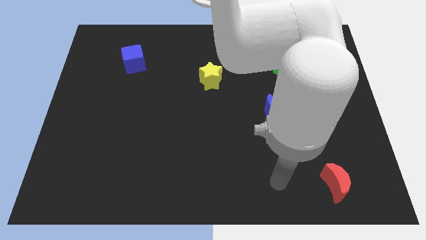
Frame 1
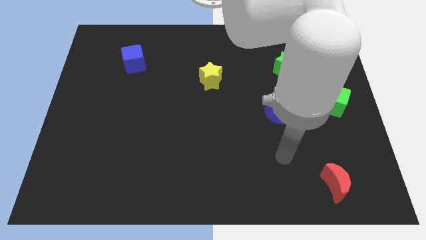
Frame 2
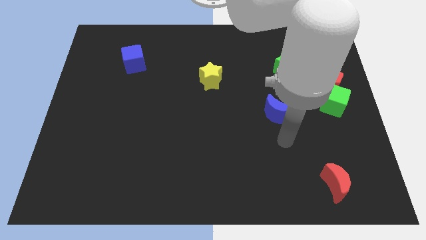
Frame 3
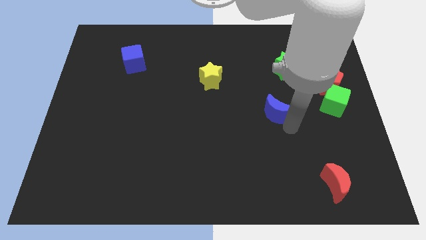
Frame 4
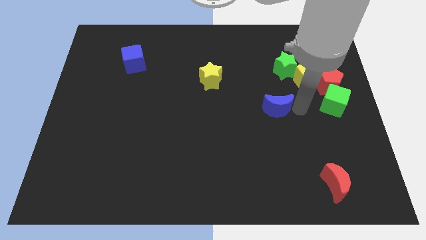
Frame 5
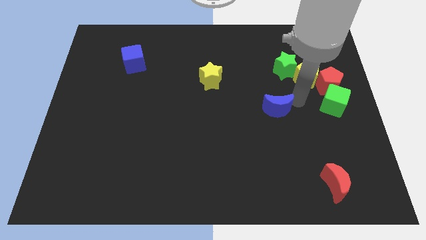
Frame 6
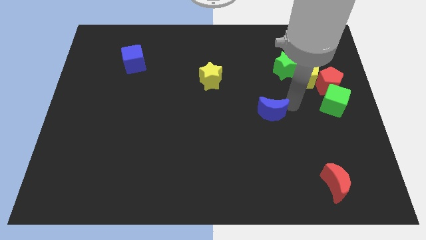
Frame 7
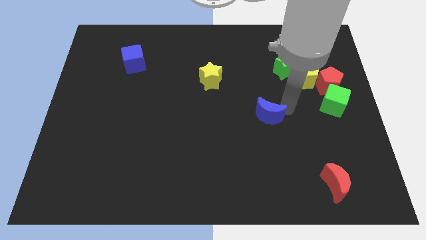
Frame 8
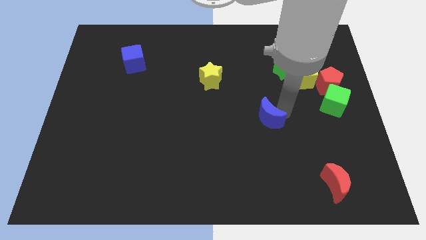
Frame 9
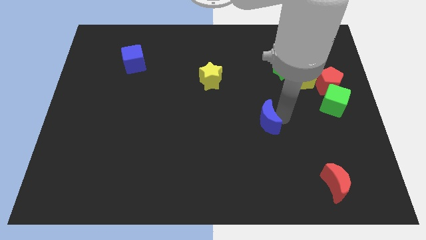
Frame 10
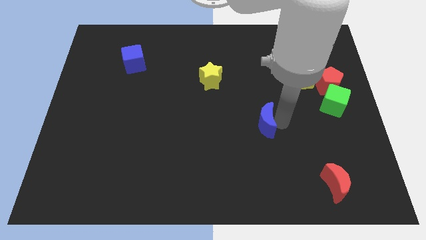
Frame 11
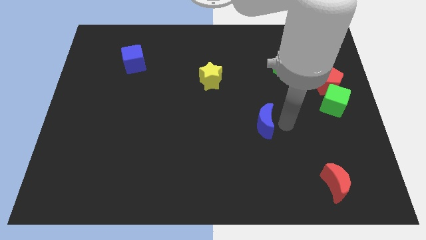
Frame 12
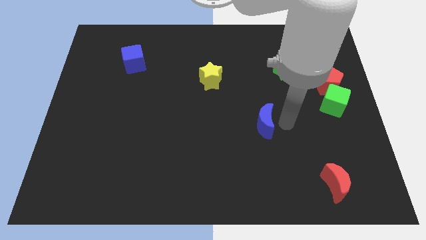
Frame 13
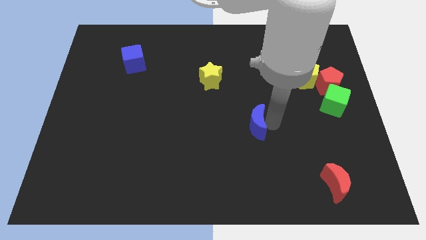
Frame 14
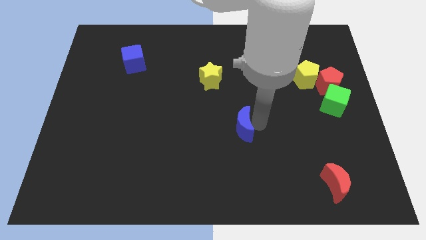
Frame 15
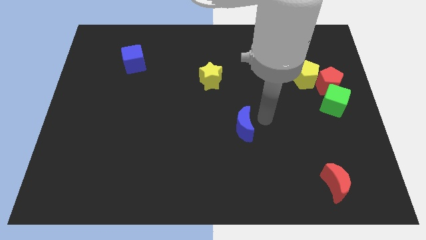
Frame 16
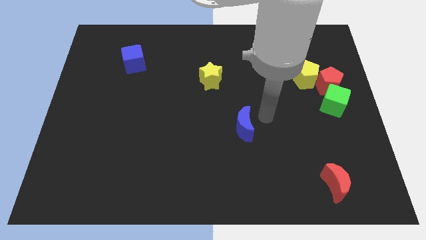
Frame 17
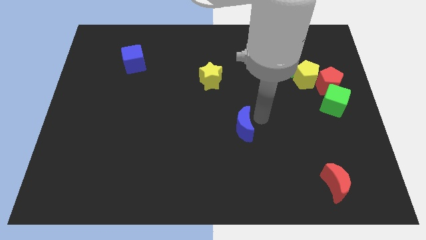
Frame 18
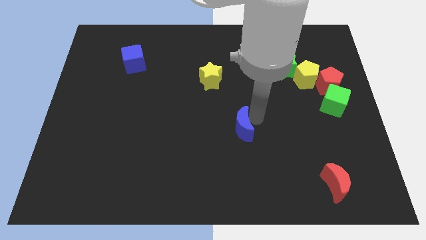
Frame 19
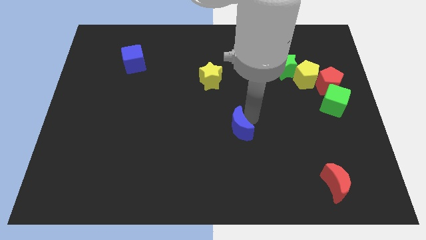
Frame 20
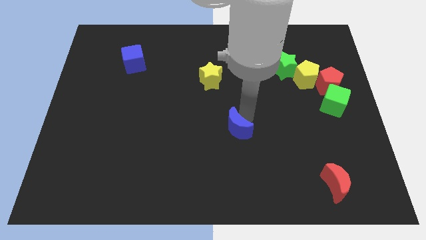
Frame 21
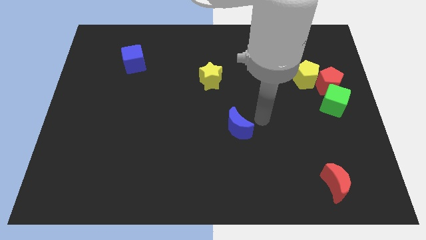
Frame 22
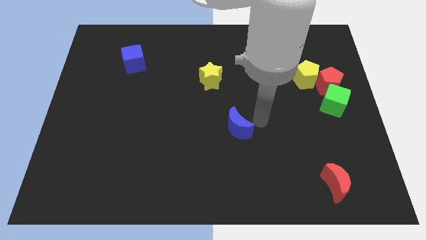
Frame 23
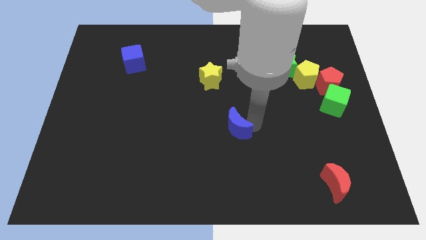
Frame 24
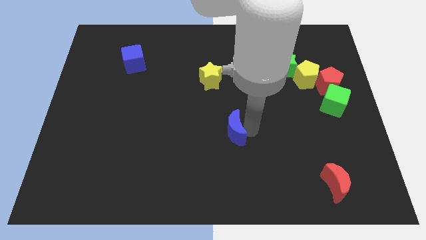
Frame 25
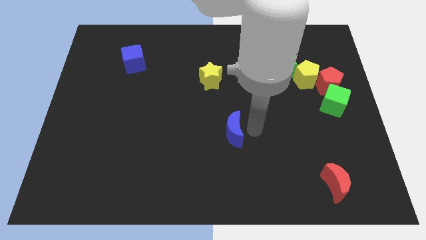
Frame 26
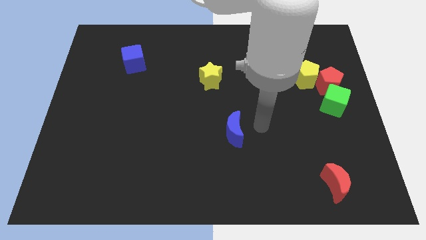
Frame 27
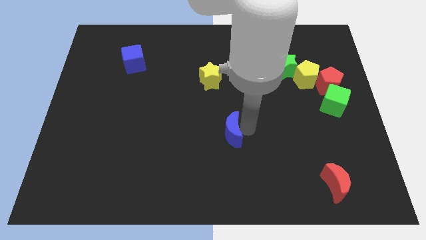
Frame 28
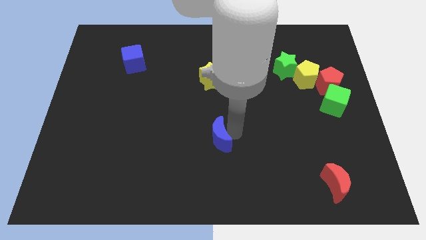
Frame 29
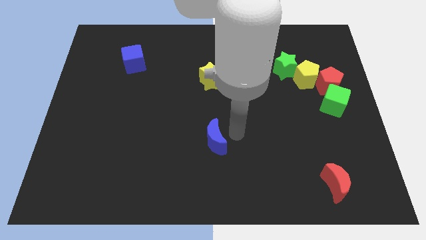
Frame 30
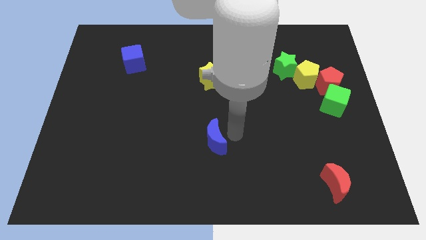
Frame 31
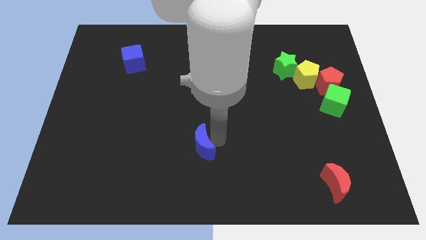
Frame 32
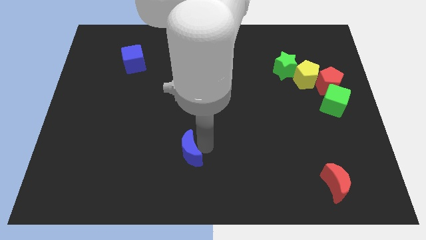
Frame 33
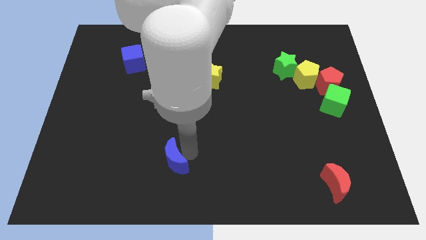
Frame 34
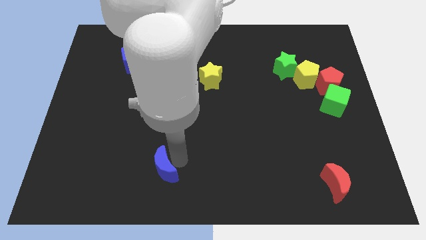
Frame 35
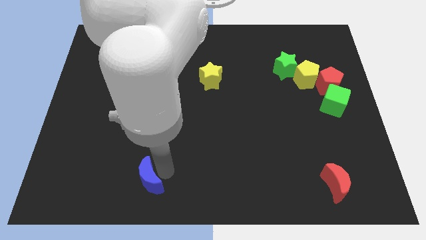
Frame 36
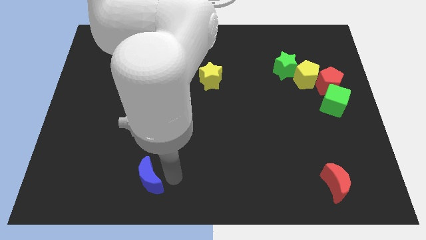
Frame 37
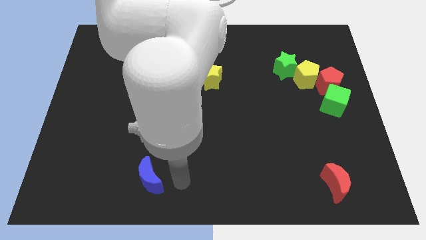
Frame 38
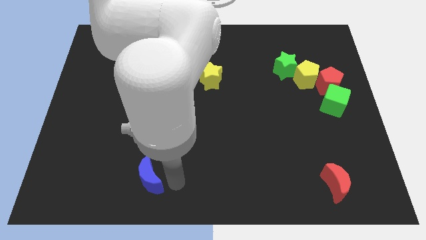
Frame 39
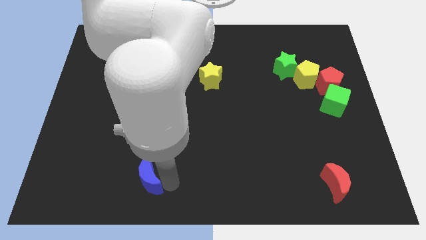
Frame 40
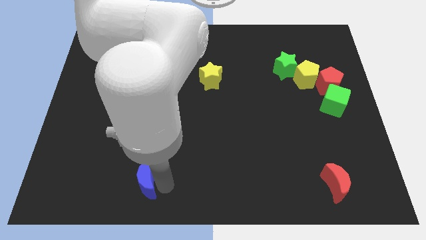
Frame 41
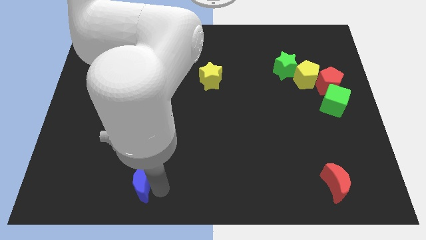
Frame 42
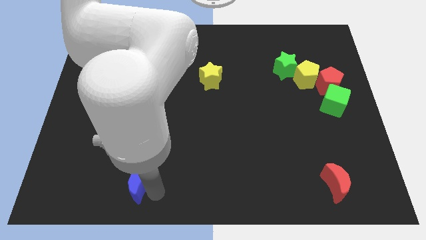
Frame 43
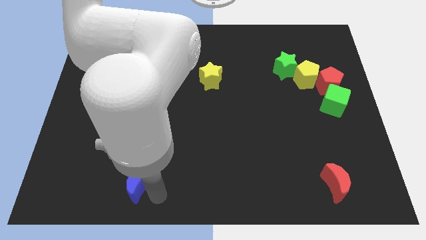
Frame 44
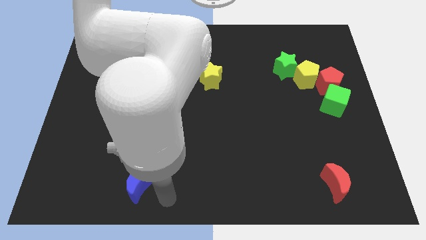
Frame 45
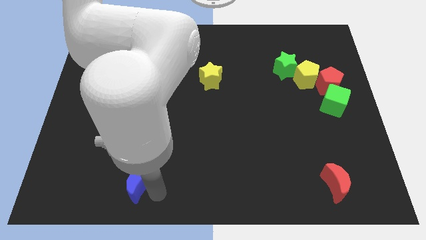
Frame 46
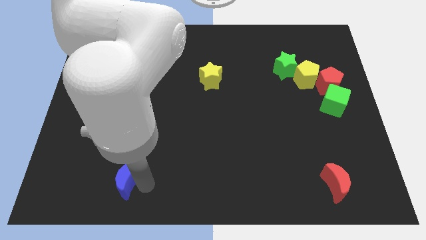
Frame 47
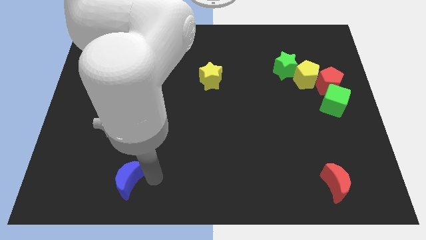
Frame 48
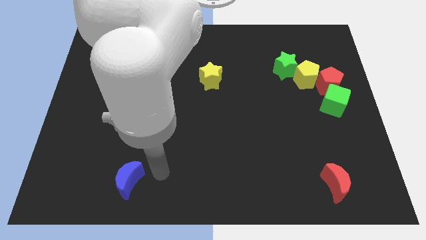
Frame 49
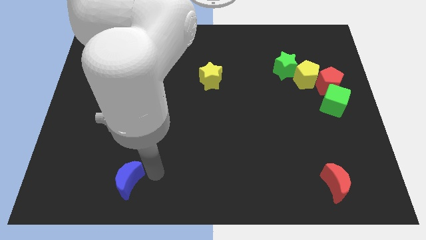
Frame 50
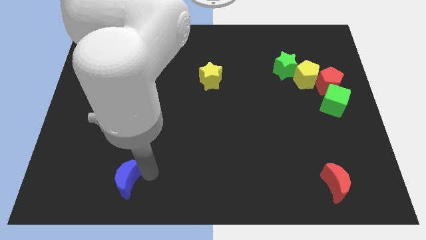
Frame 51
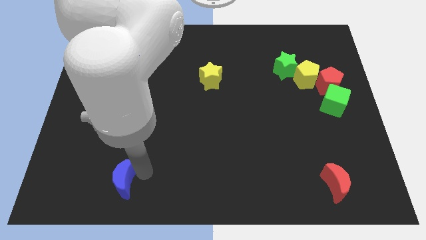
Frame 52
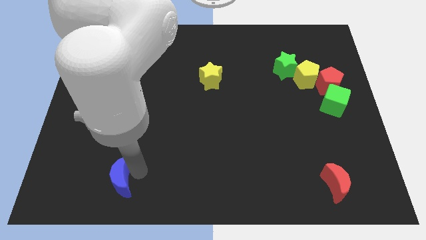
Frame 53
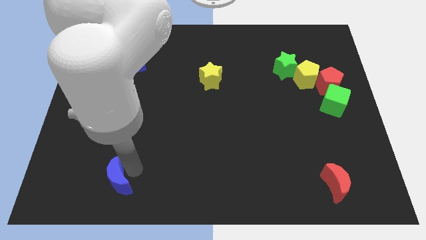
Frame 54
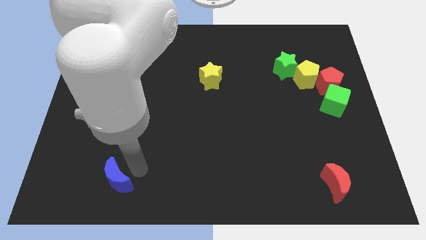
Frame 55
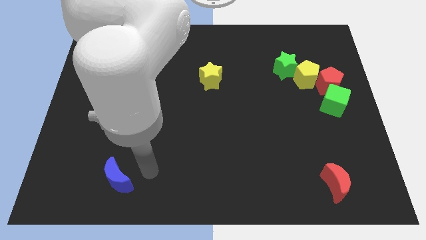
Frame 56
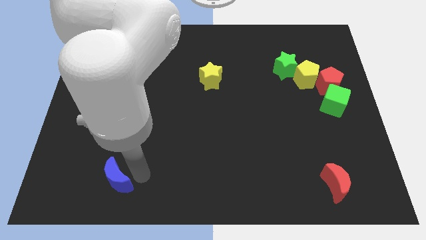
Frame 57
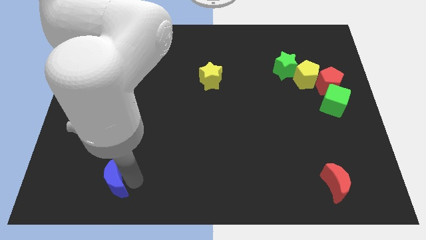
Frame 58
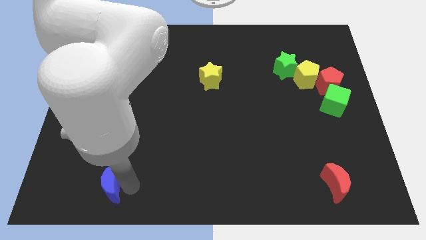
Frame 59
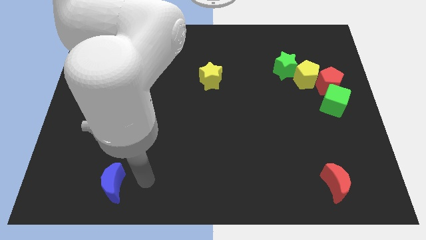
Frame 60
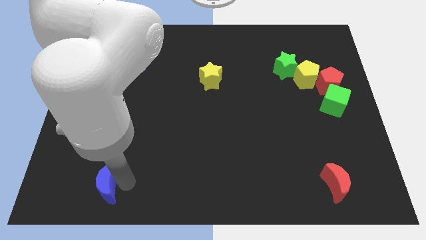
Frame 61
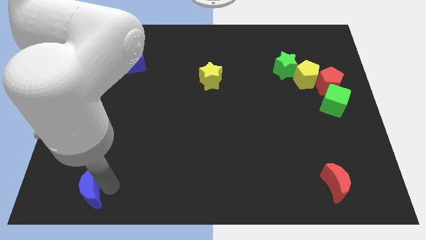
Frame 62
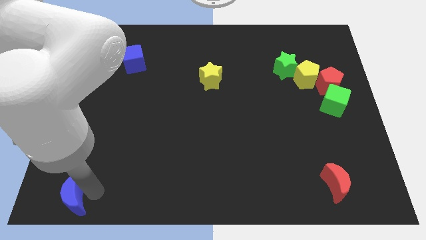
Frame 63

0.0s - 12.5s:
move the blue moon to the bottom left of the board
